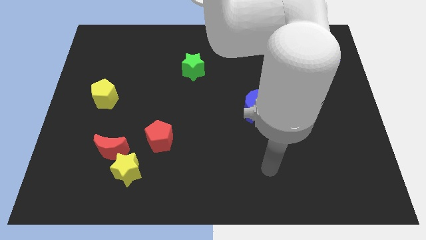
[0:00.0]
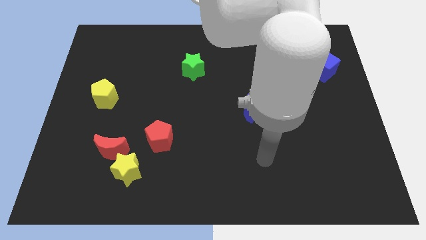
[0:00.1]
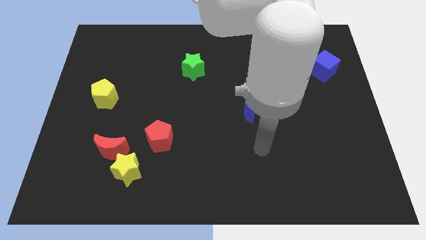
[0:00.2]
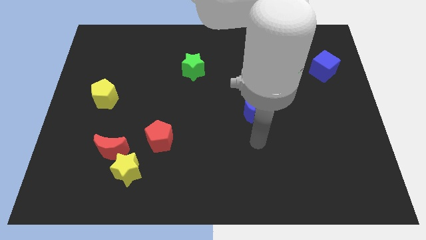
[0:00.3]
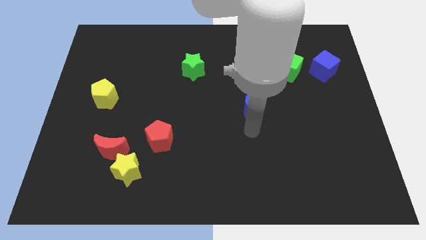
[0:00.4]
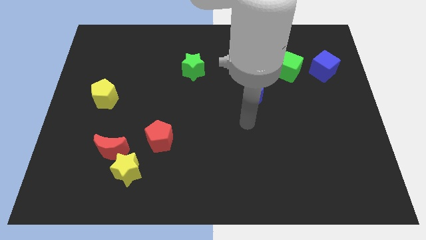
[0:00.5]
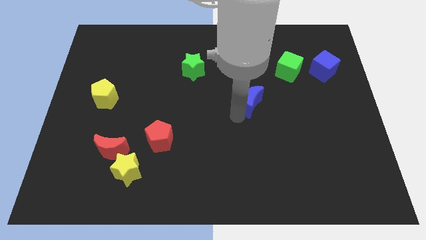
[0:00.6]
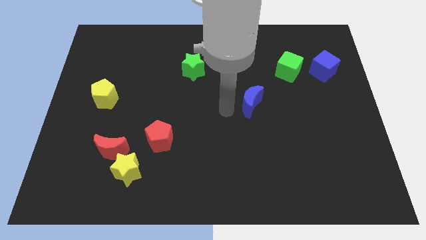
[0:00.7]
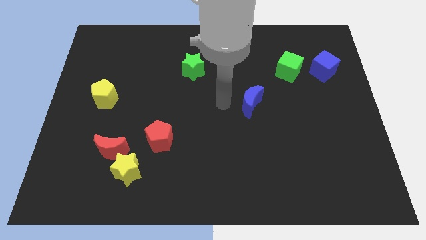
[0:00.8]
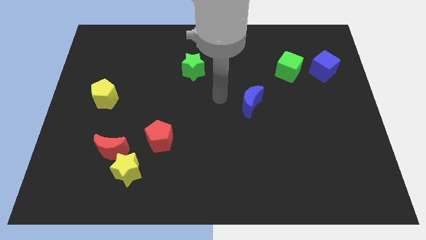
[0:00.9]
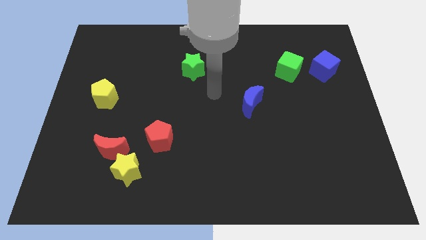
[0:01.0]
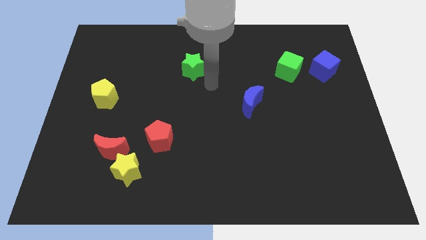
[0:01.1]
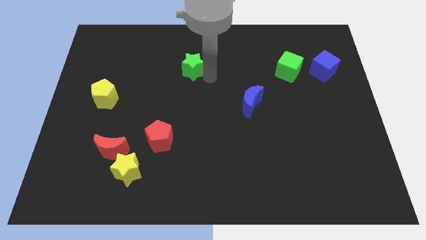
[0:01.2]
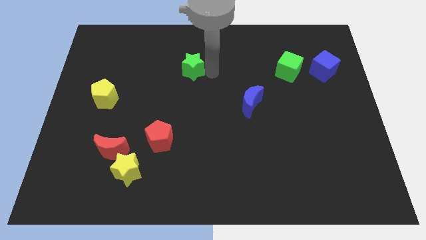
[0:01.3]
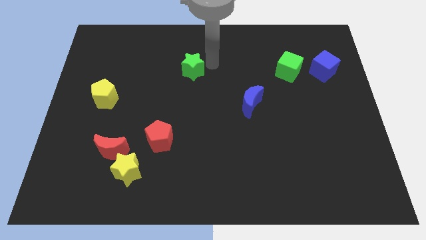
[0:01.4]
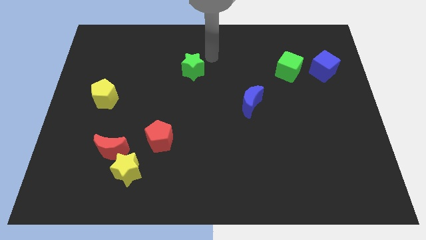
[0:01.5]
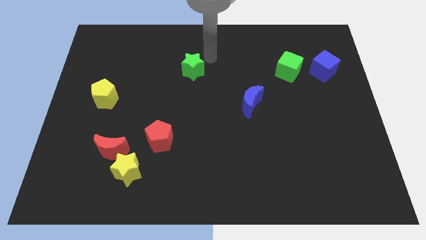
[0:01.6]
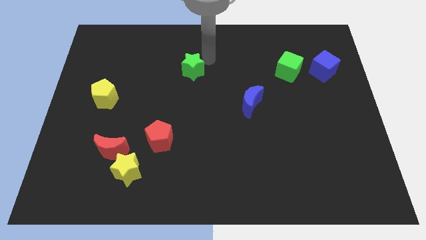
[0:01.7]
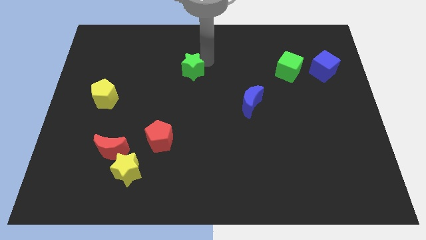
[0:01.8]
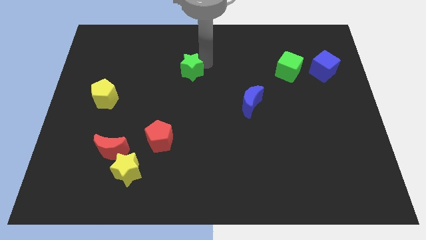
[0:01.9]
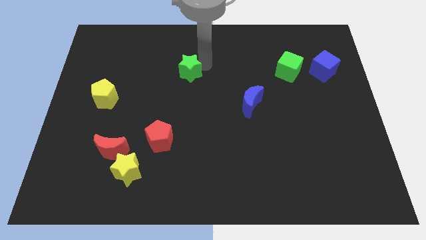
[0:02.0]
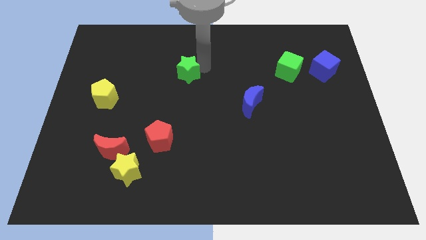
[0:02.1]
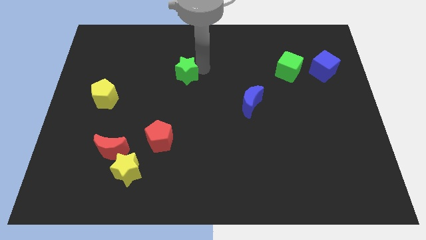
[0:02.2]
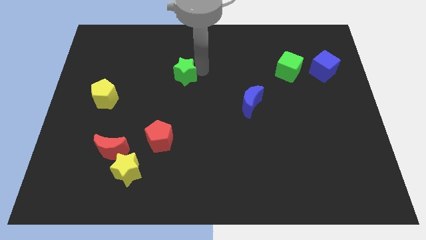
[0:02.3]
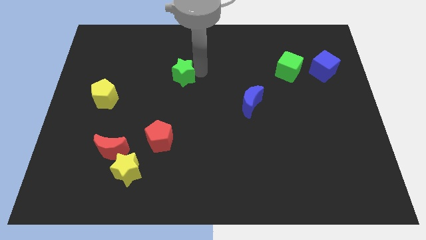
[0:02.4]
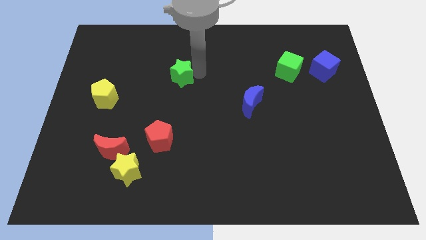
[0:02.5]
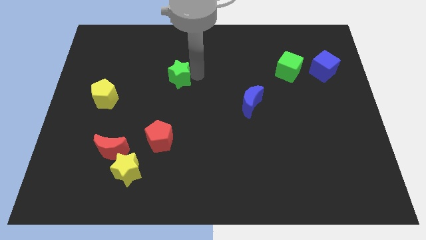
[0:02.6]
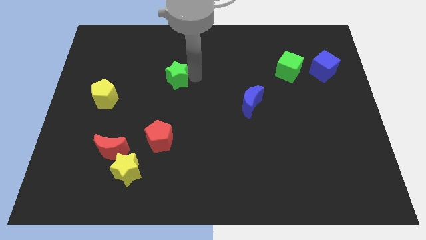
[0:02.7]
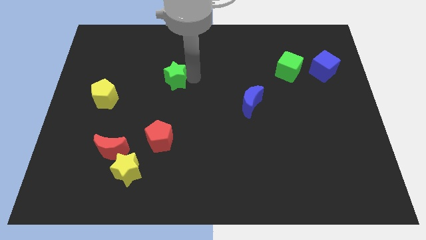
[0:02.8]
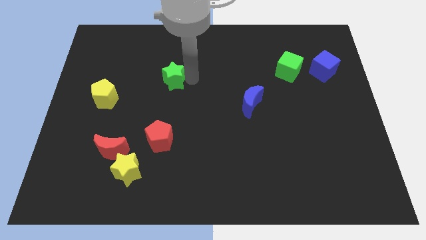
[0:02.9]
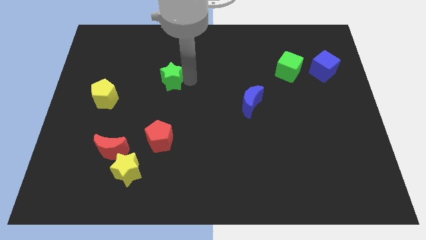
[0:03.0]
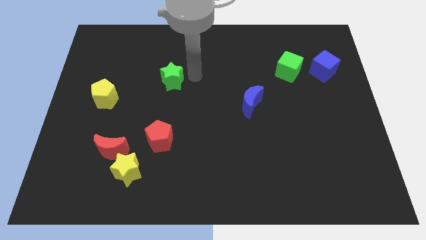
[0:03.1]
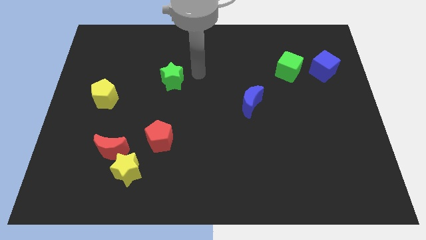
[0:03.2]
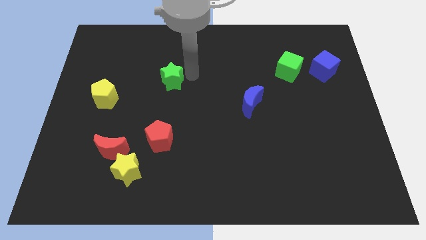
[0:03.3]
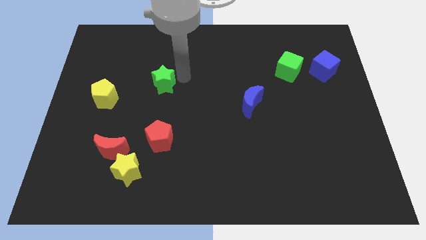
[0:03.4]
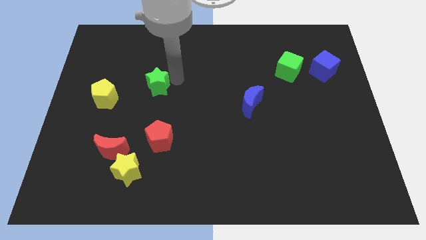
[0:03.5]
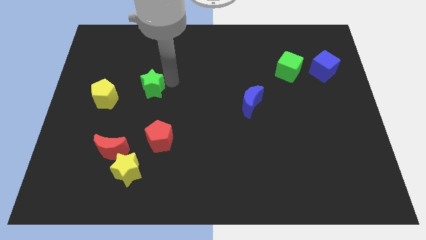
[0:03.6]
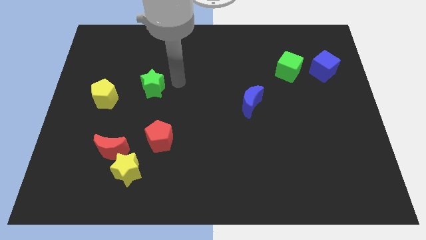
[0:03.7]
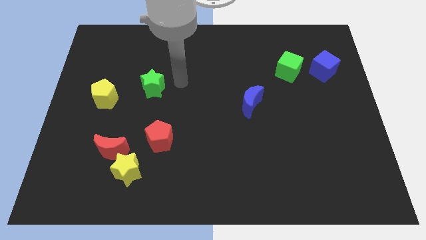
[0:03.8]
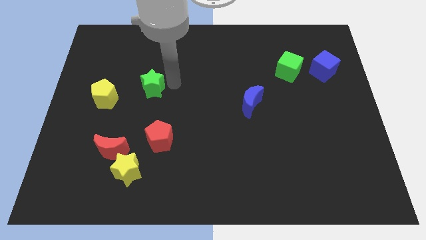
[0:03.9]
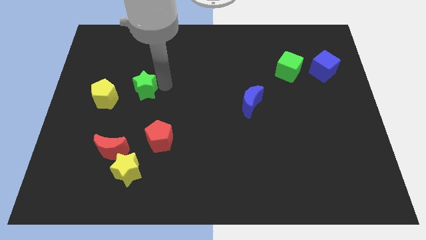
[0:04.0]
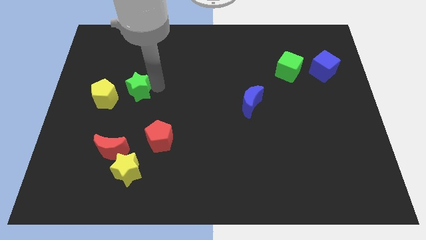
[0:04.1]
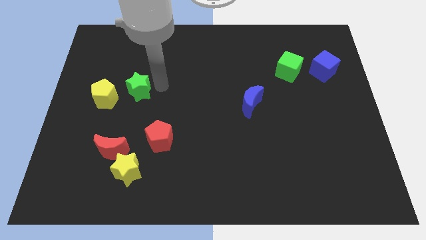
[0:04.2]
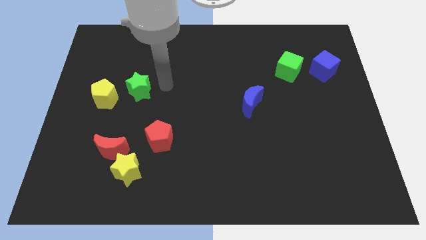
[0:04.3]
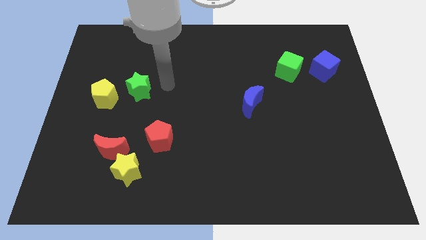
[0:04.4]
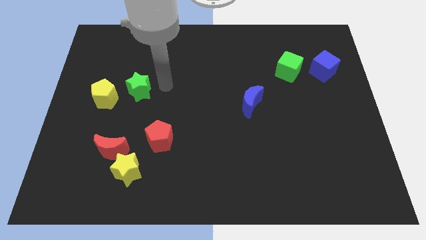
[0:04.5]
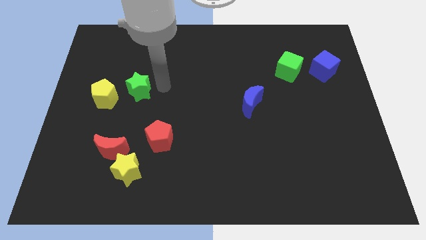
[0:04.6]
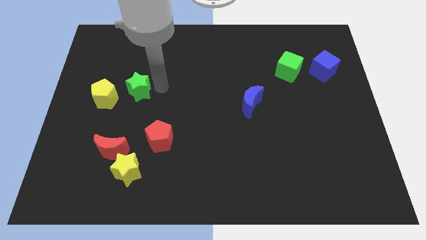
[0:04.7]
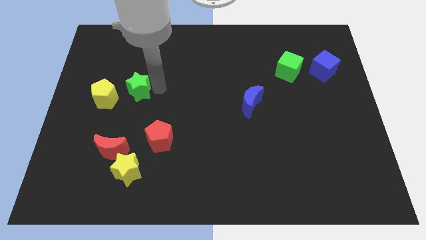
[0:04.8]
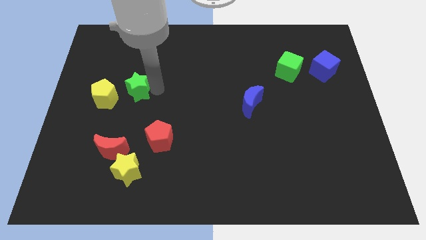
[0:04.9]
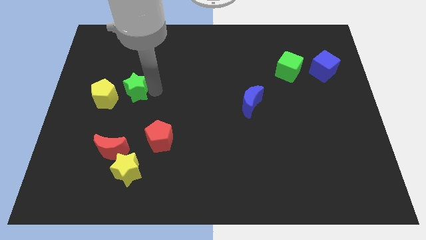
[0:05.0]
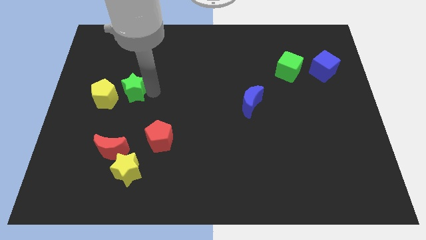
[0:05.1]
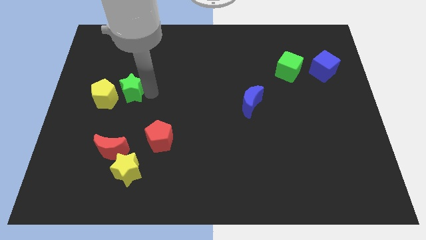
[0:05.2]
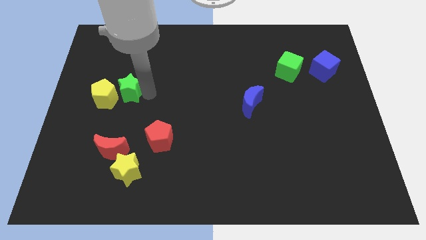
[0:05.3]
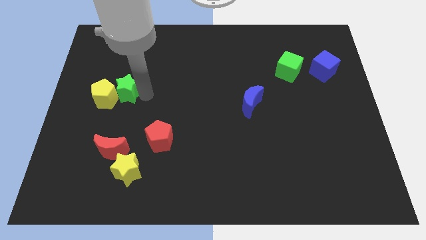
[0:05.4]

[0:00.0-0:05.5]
push the green star close to the yellow pentagon

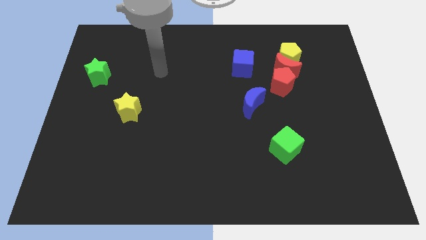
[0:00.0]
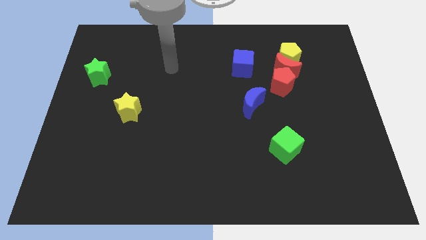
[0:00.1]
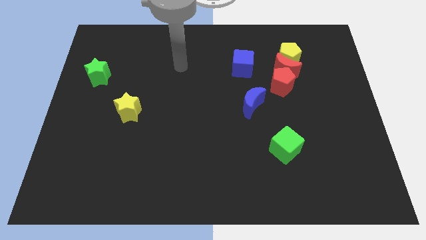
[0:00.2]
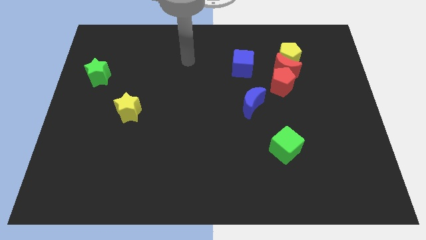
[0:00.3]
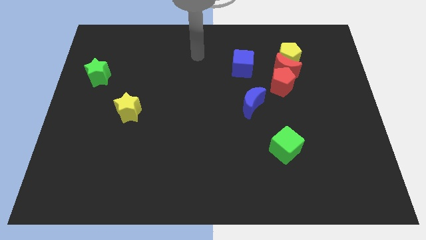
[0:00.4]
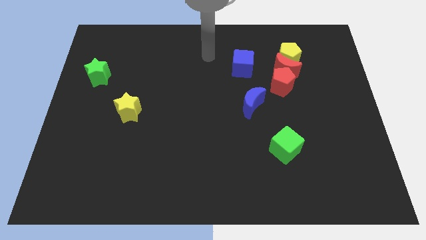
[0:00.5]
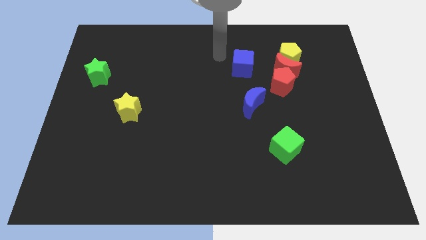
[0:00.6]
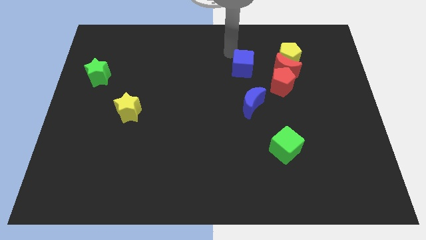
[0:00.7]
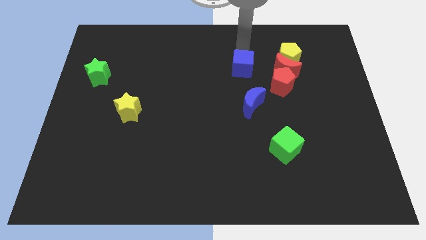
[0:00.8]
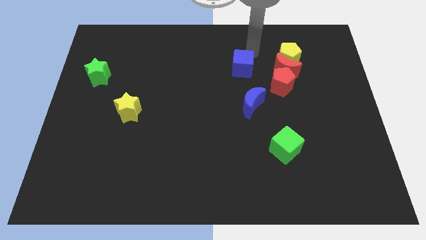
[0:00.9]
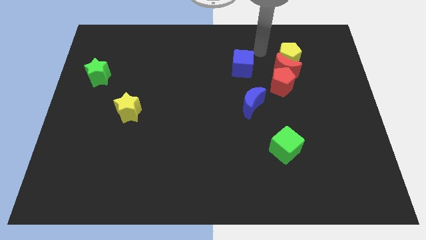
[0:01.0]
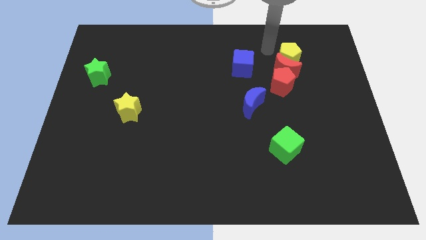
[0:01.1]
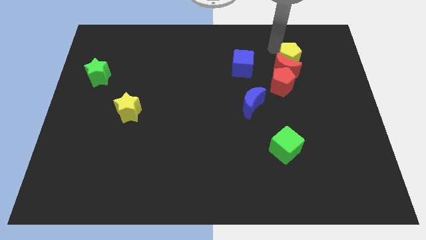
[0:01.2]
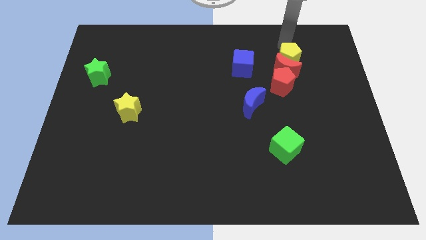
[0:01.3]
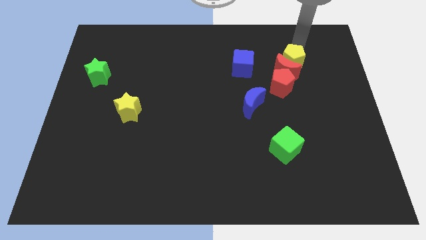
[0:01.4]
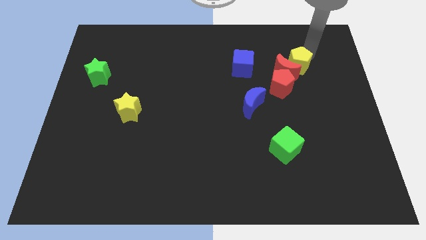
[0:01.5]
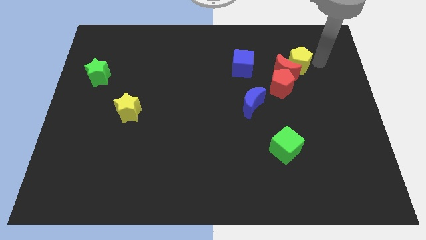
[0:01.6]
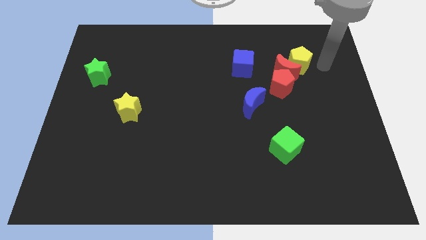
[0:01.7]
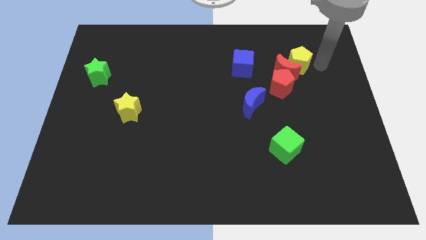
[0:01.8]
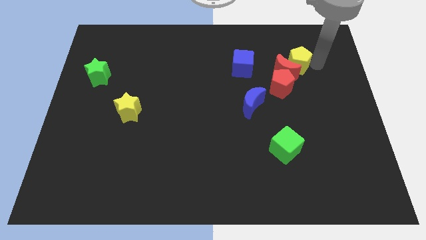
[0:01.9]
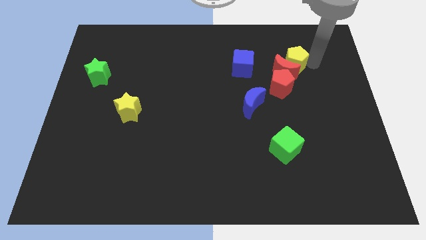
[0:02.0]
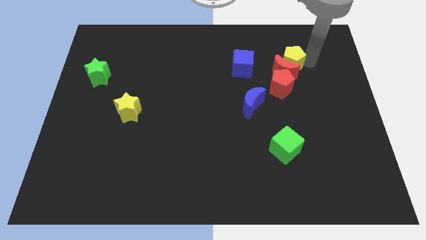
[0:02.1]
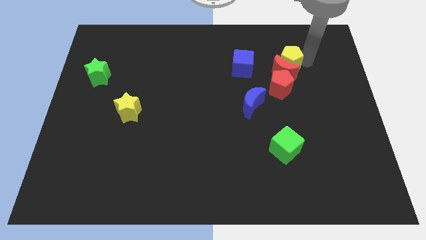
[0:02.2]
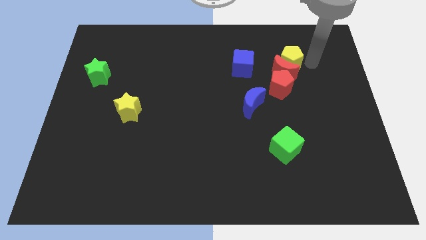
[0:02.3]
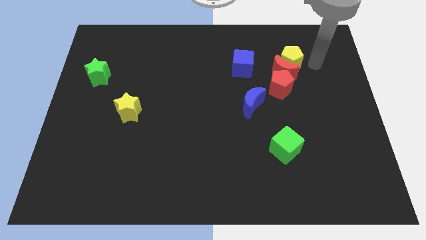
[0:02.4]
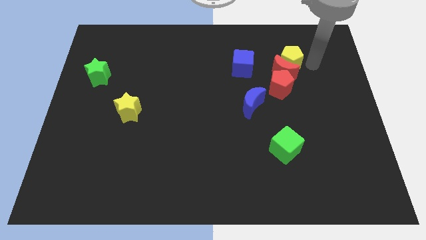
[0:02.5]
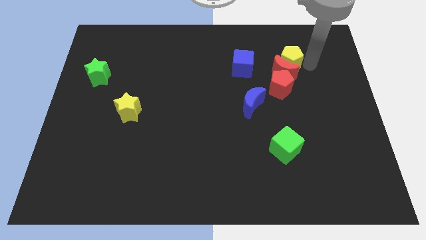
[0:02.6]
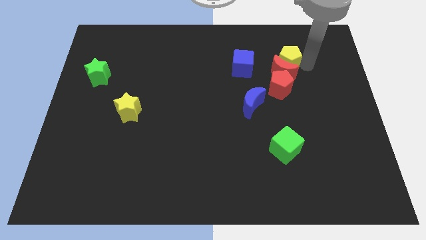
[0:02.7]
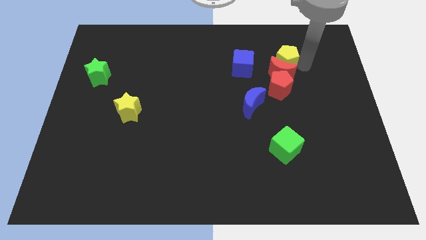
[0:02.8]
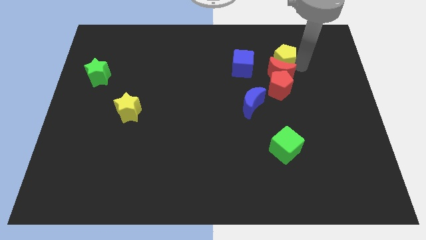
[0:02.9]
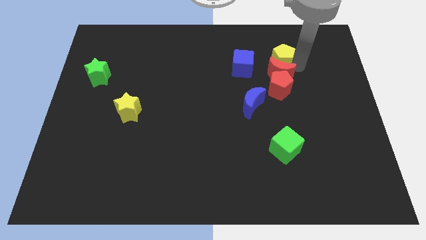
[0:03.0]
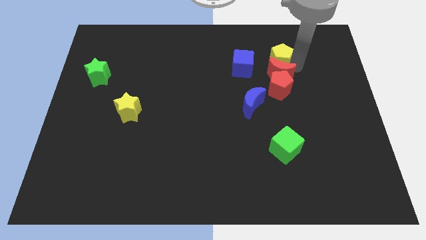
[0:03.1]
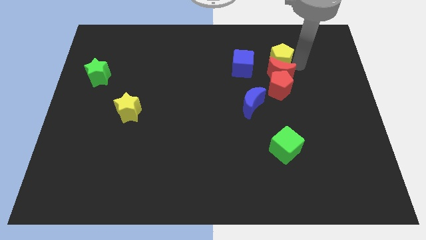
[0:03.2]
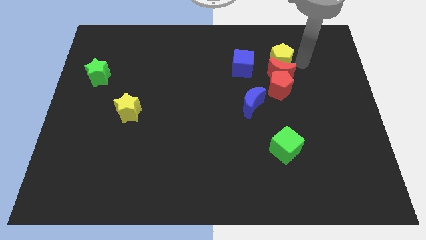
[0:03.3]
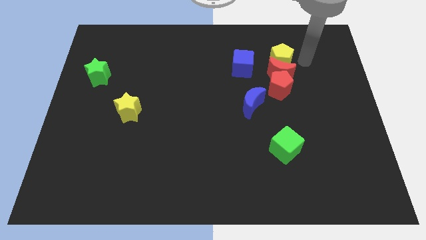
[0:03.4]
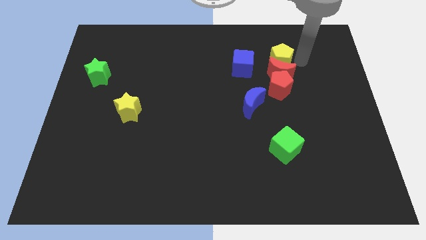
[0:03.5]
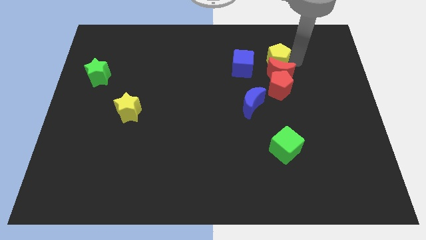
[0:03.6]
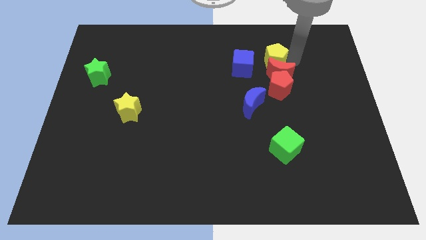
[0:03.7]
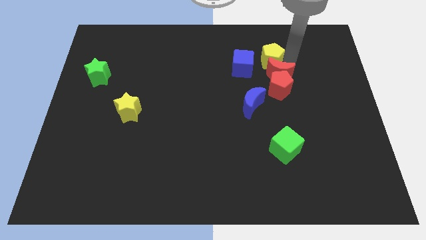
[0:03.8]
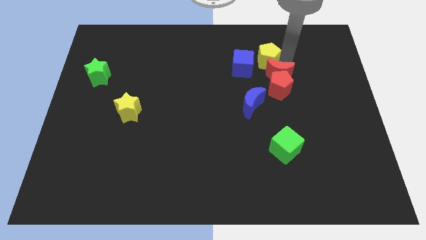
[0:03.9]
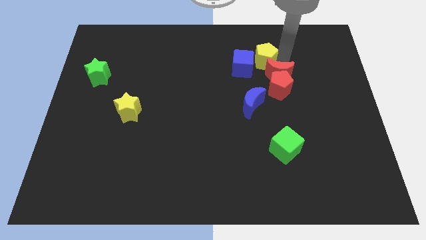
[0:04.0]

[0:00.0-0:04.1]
push the yellow pentagon next to the blue cube
